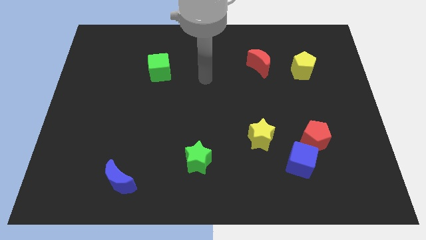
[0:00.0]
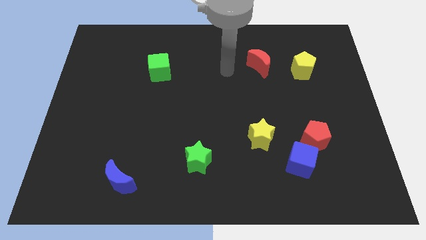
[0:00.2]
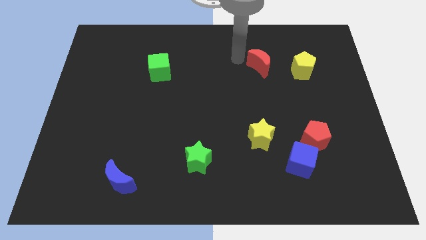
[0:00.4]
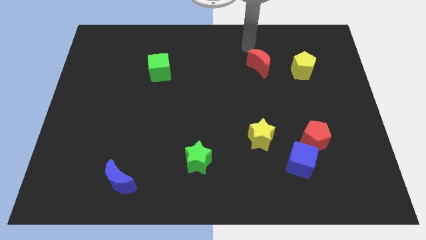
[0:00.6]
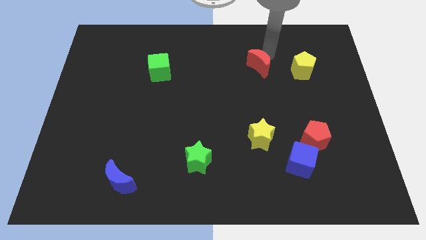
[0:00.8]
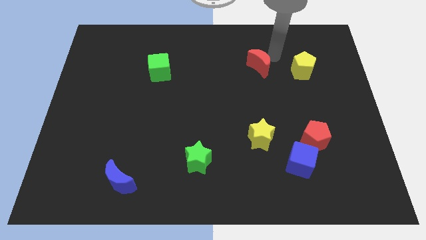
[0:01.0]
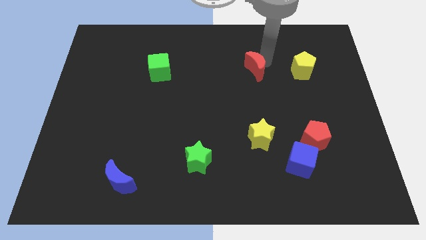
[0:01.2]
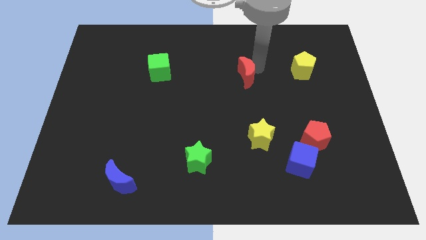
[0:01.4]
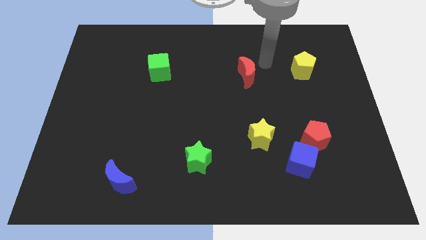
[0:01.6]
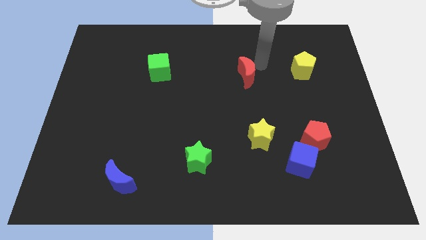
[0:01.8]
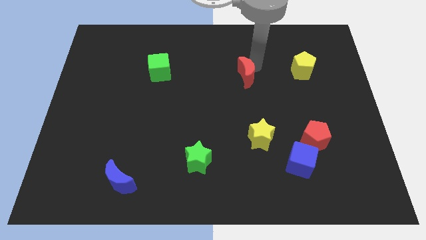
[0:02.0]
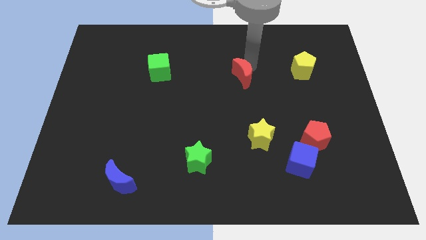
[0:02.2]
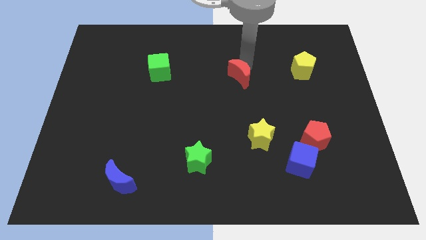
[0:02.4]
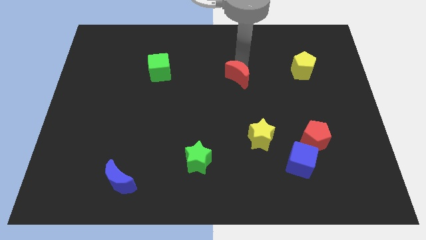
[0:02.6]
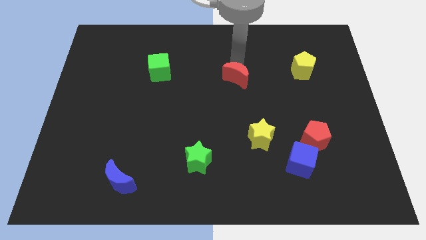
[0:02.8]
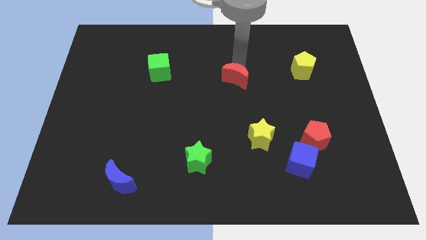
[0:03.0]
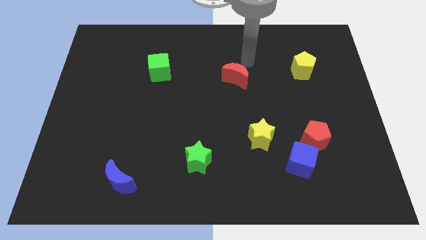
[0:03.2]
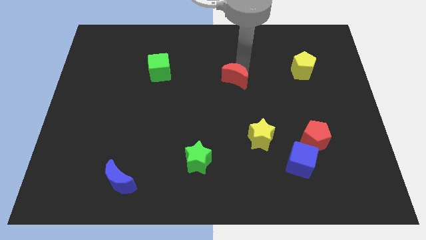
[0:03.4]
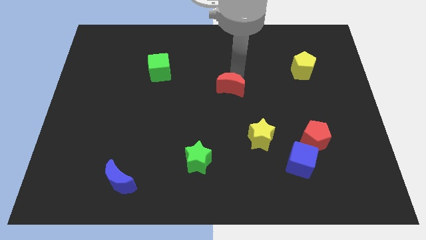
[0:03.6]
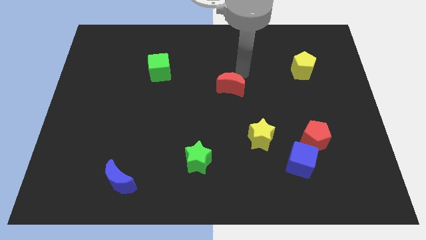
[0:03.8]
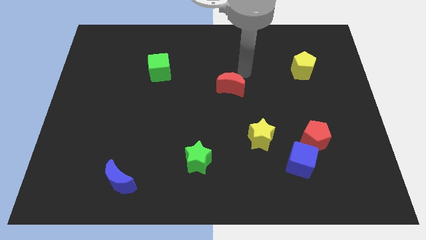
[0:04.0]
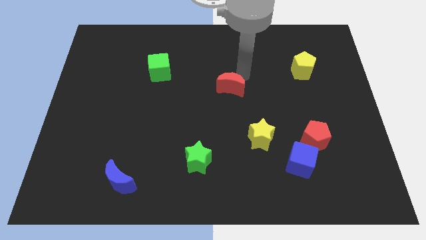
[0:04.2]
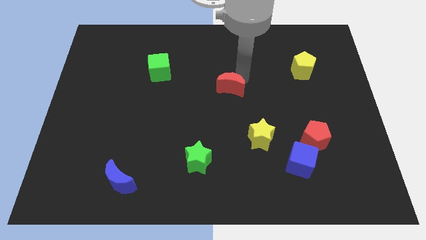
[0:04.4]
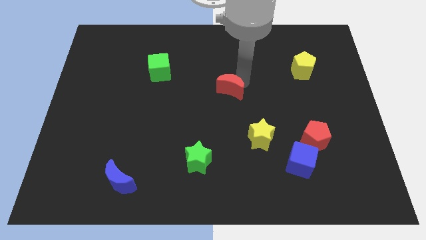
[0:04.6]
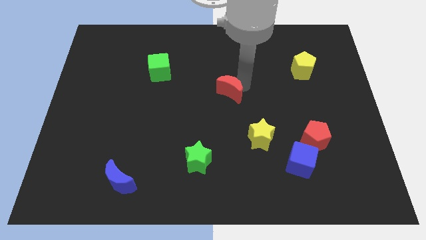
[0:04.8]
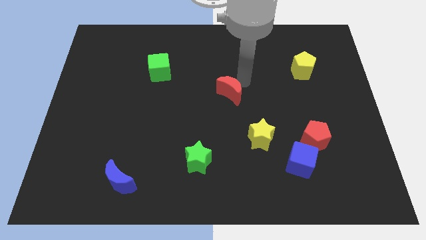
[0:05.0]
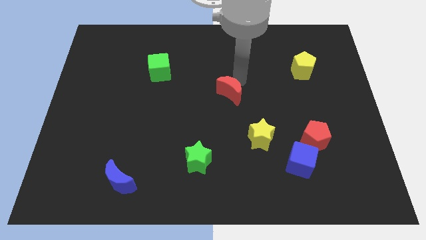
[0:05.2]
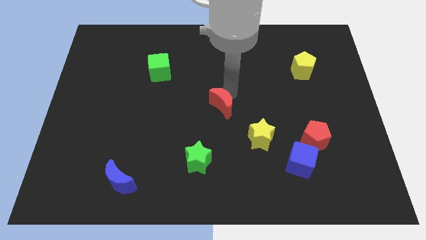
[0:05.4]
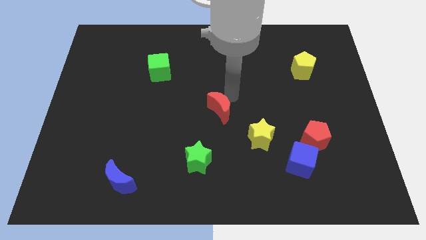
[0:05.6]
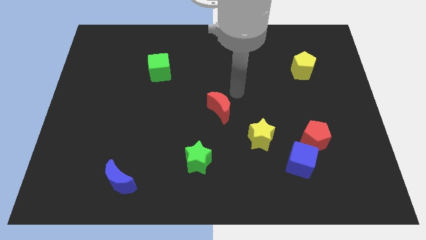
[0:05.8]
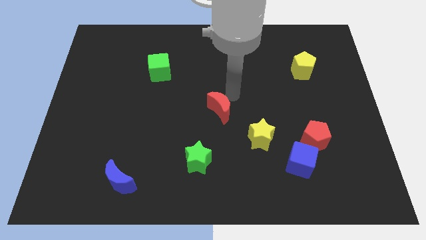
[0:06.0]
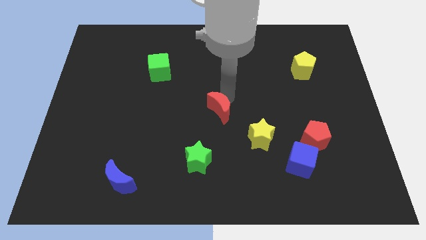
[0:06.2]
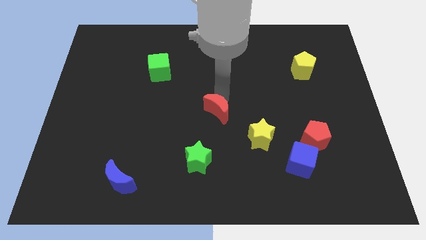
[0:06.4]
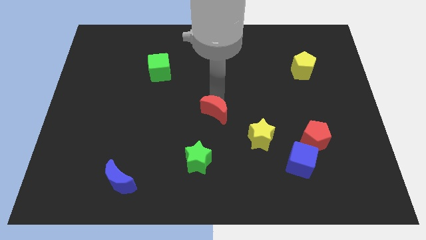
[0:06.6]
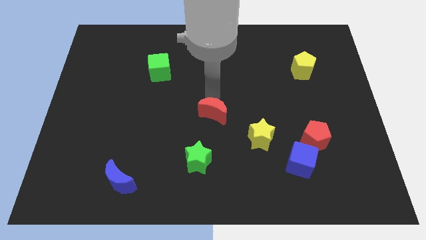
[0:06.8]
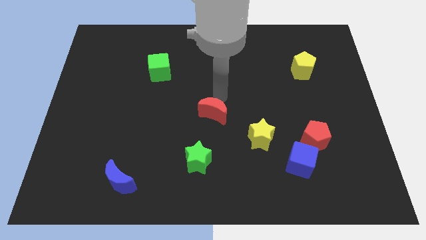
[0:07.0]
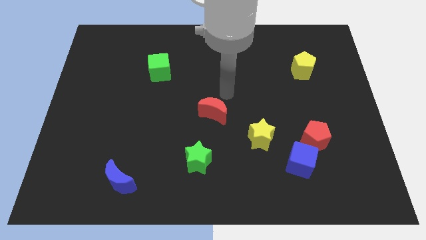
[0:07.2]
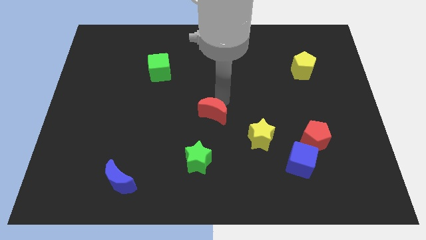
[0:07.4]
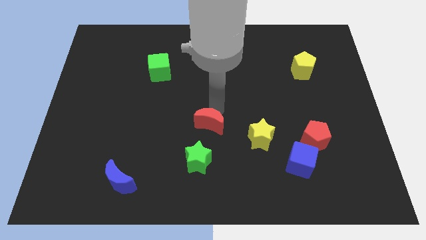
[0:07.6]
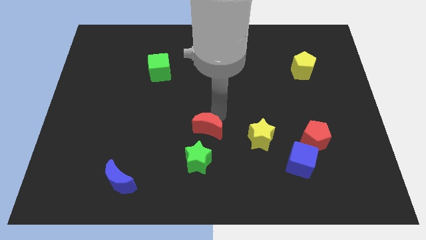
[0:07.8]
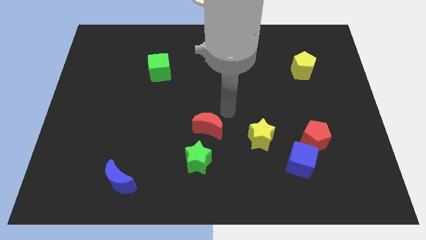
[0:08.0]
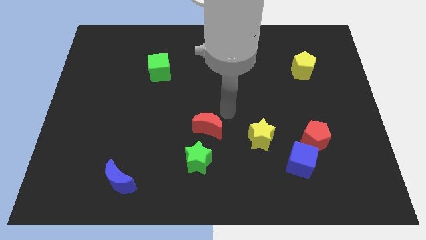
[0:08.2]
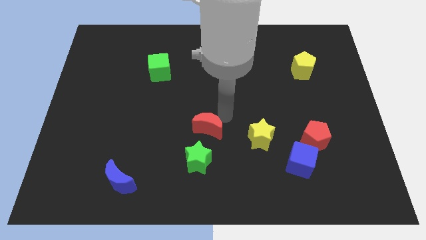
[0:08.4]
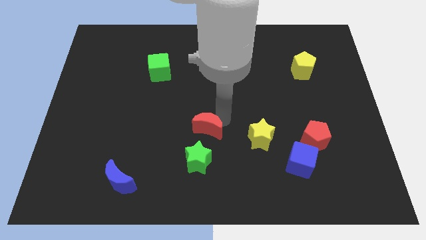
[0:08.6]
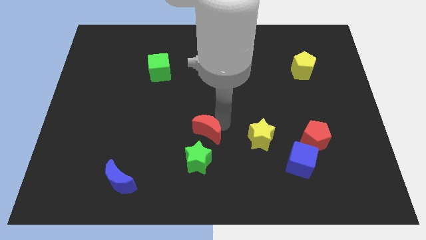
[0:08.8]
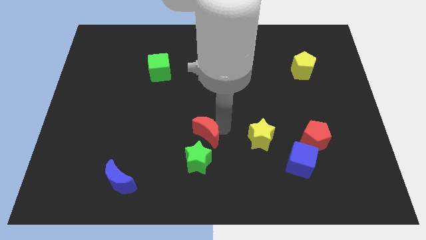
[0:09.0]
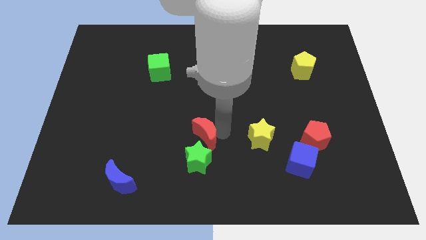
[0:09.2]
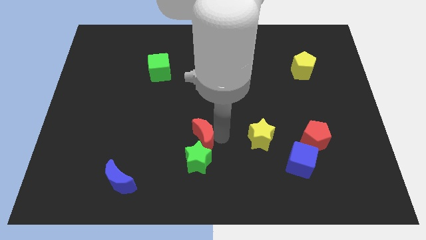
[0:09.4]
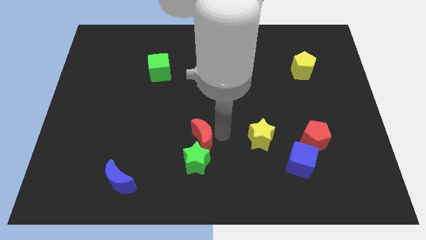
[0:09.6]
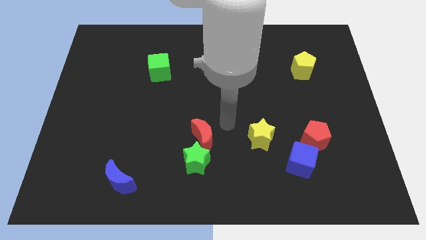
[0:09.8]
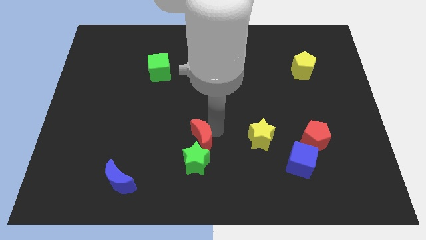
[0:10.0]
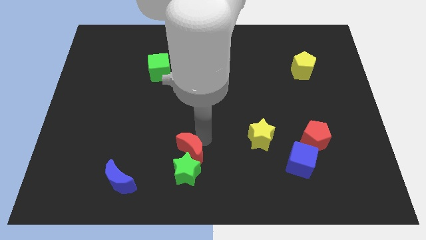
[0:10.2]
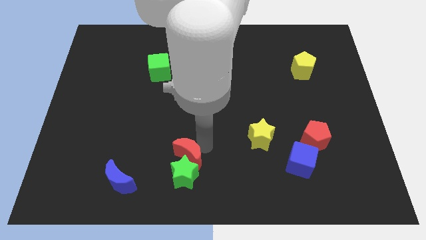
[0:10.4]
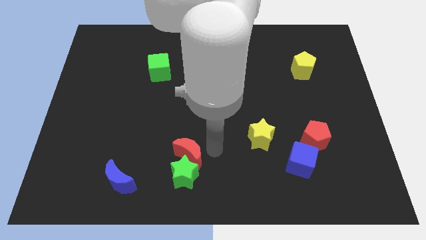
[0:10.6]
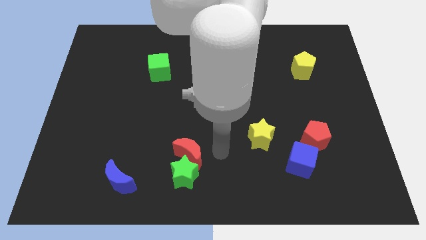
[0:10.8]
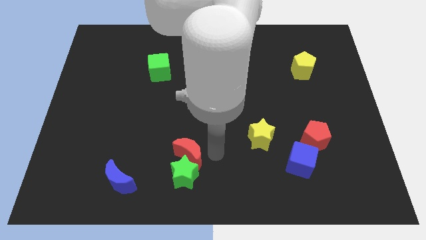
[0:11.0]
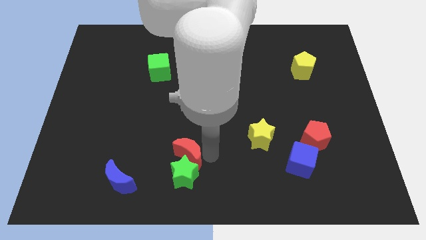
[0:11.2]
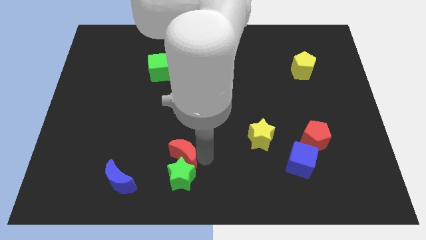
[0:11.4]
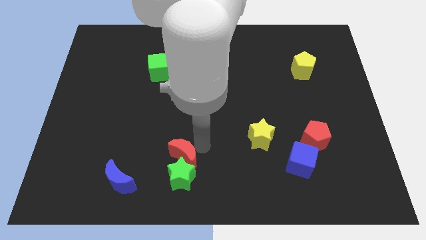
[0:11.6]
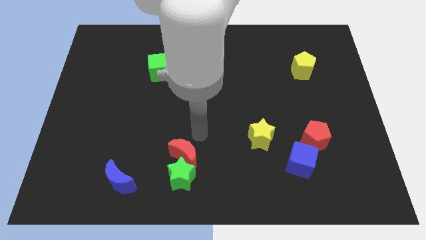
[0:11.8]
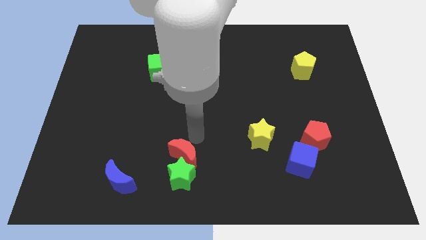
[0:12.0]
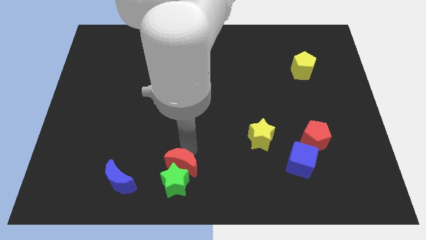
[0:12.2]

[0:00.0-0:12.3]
push the red moon to the right of the blue moon

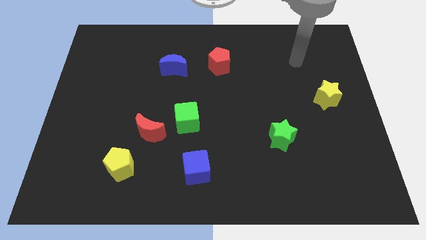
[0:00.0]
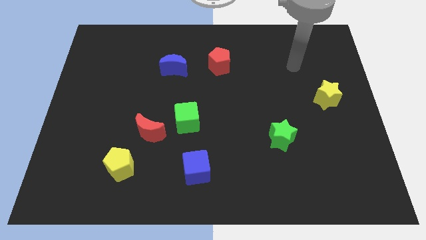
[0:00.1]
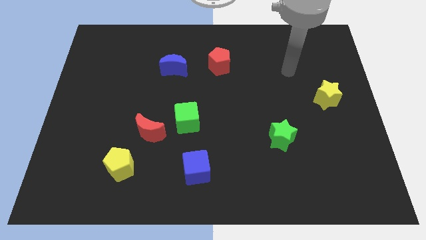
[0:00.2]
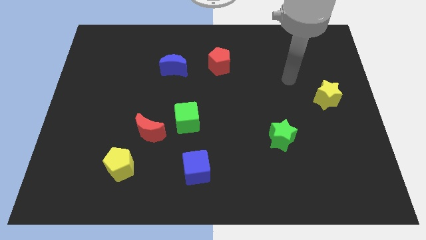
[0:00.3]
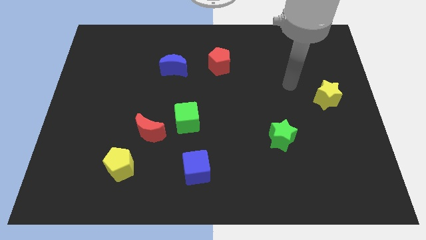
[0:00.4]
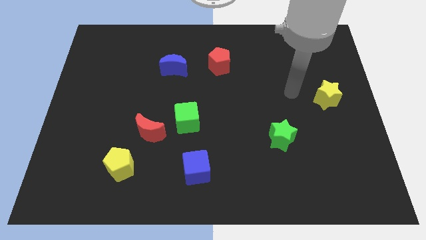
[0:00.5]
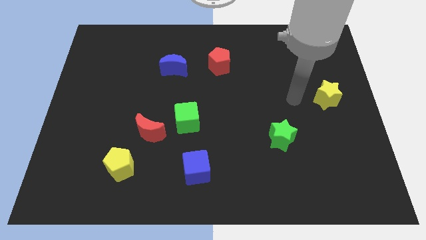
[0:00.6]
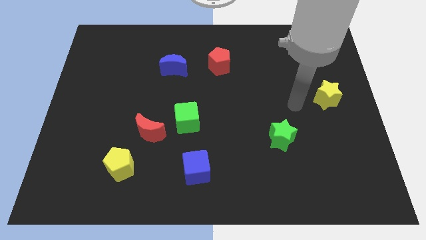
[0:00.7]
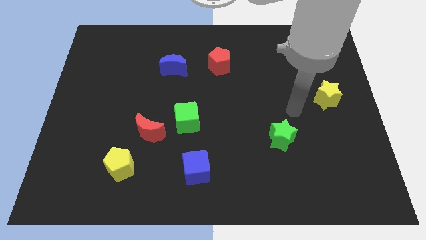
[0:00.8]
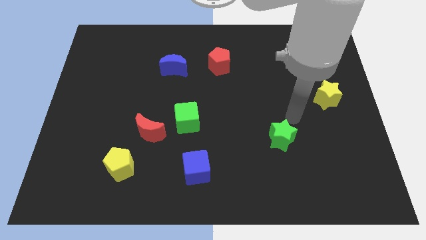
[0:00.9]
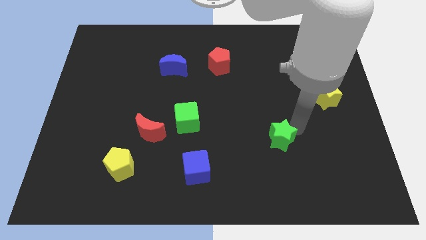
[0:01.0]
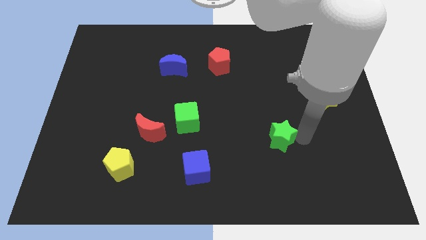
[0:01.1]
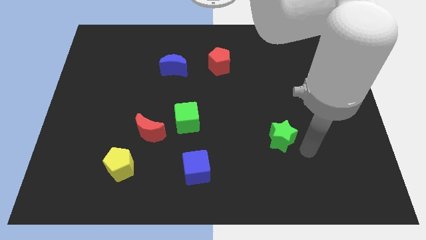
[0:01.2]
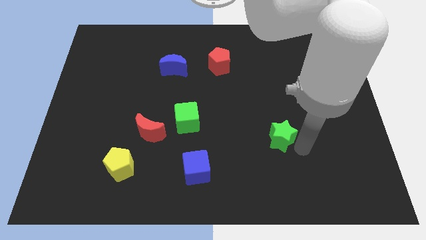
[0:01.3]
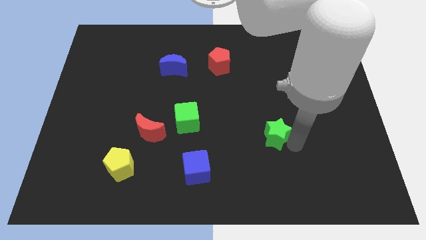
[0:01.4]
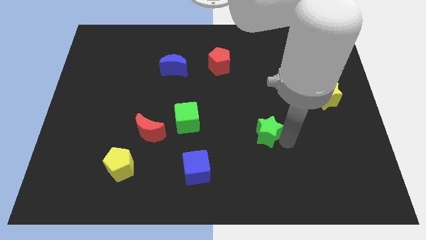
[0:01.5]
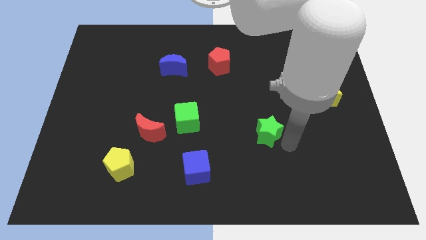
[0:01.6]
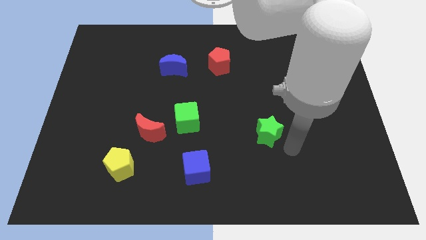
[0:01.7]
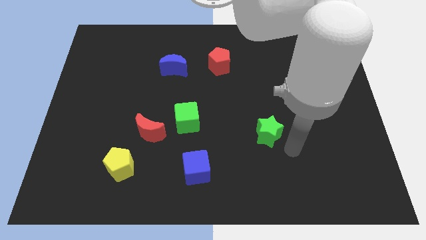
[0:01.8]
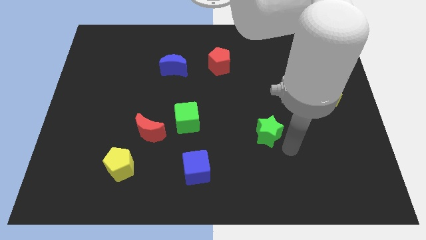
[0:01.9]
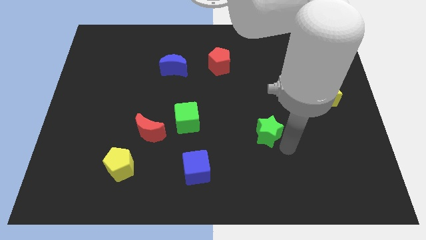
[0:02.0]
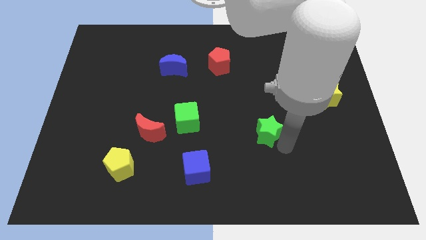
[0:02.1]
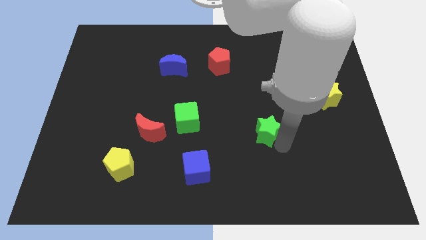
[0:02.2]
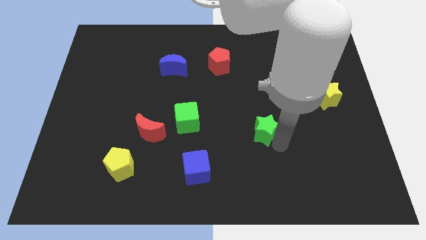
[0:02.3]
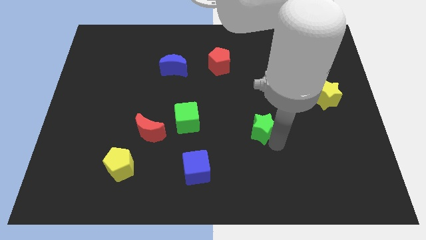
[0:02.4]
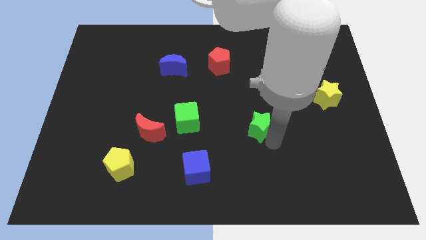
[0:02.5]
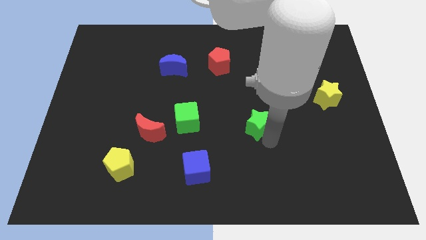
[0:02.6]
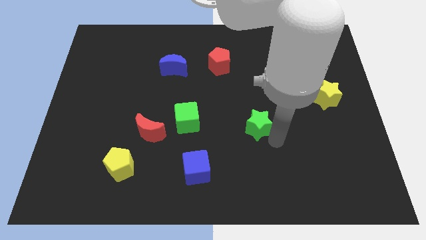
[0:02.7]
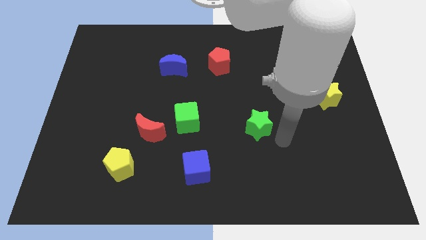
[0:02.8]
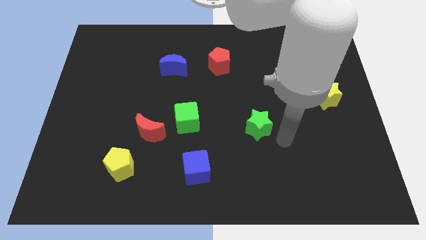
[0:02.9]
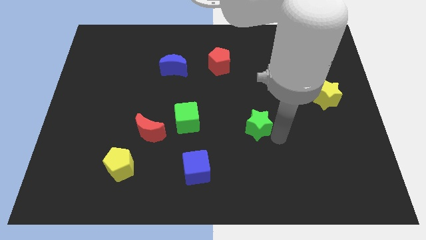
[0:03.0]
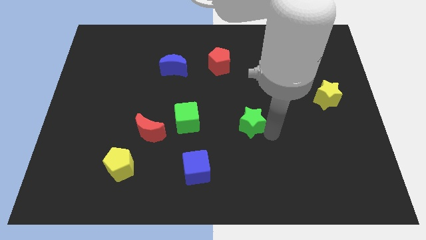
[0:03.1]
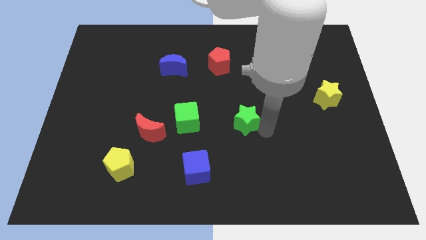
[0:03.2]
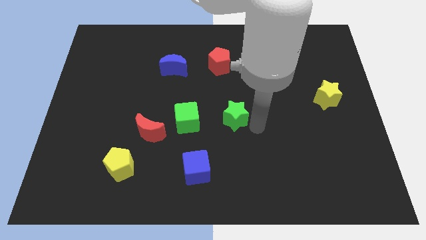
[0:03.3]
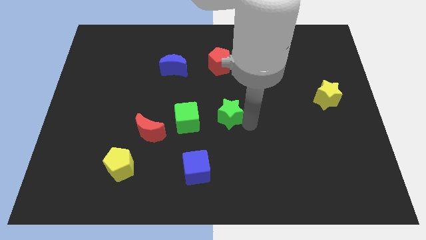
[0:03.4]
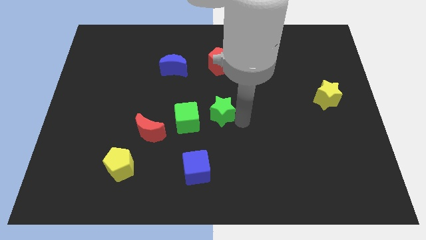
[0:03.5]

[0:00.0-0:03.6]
push the green star diagonally up and to the right of the green cube
